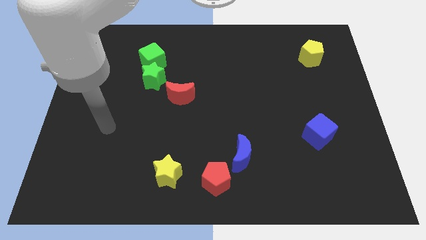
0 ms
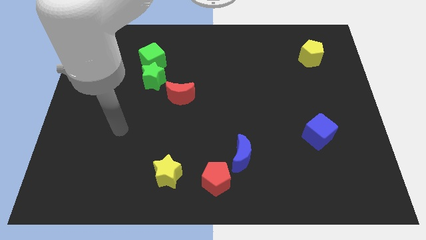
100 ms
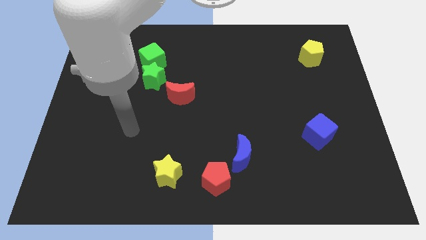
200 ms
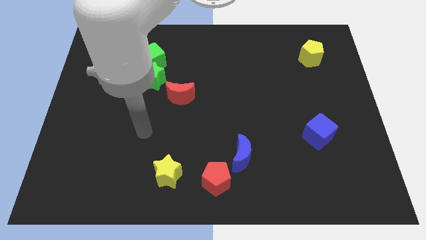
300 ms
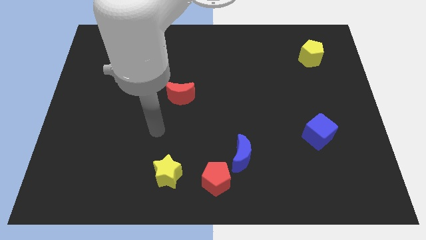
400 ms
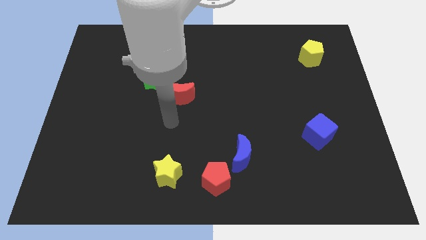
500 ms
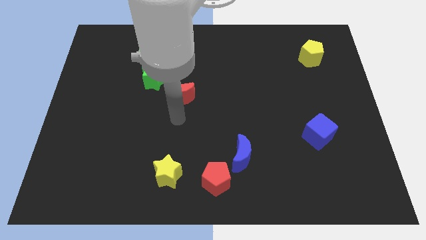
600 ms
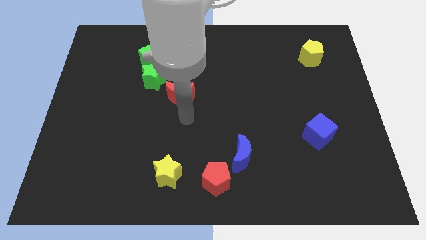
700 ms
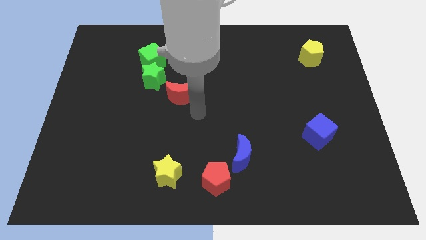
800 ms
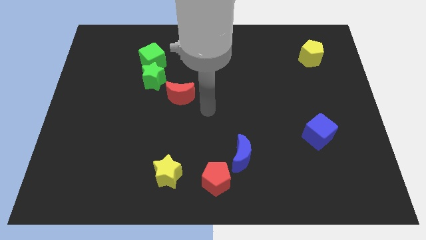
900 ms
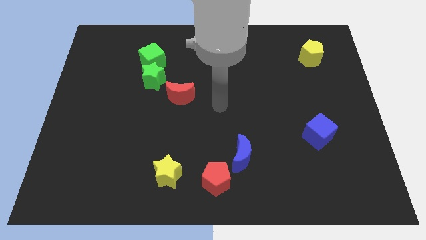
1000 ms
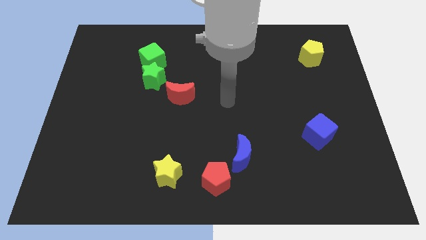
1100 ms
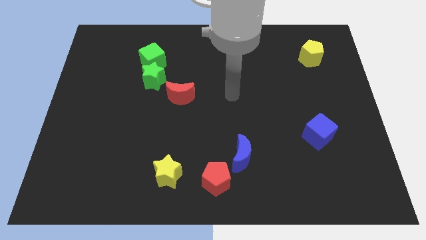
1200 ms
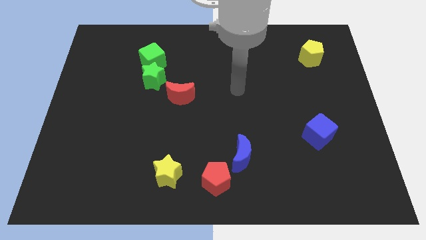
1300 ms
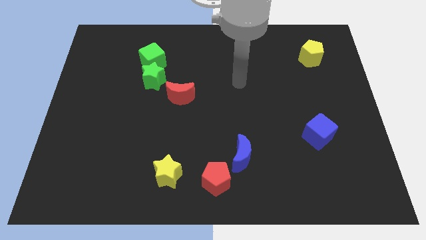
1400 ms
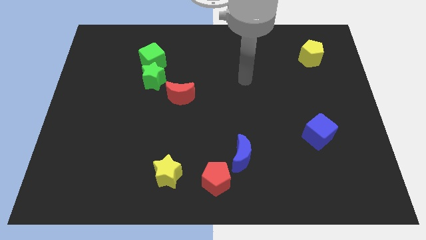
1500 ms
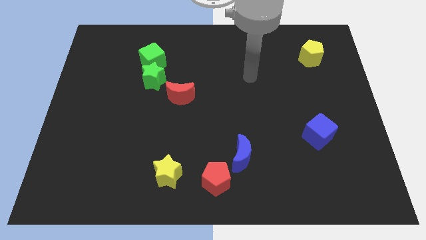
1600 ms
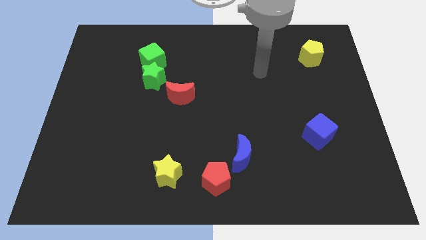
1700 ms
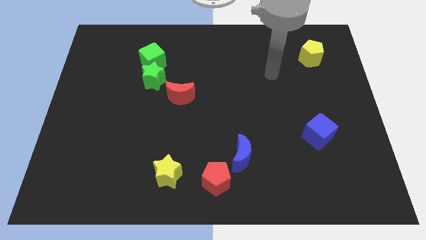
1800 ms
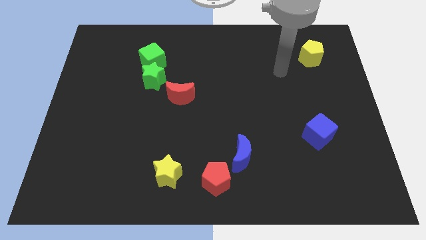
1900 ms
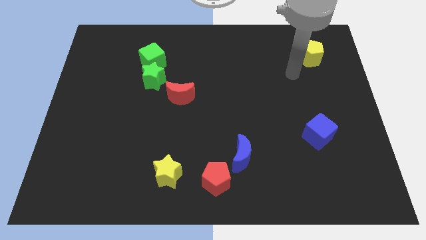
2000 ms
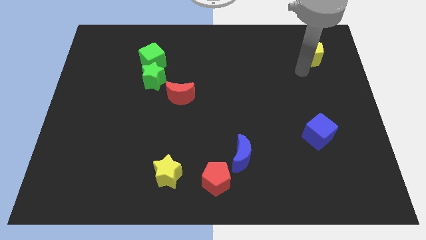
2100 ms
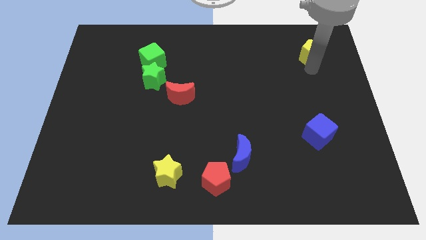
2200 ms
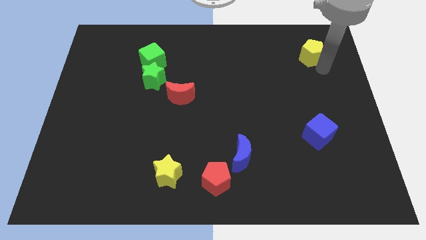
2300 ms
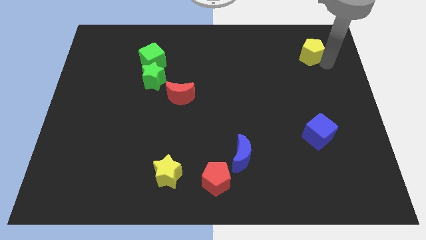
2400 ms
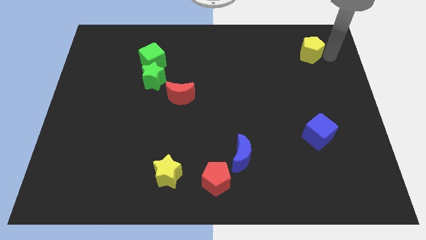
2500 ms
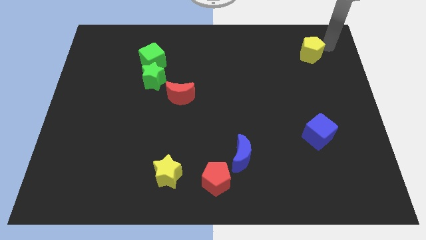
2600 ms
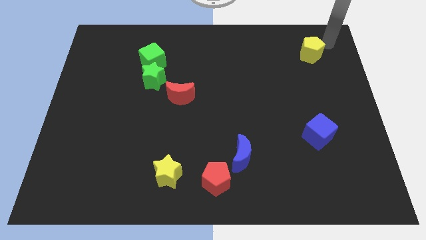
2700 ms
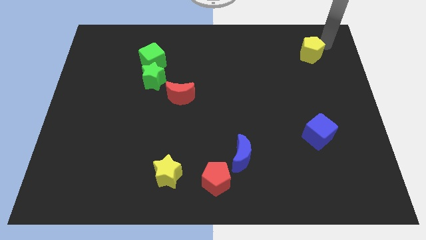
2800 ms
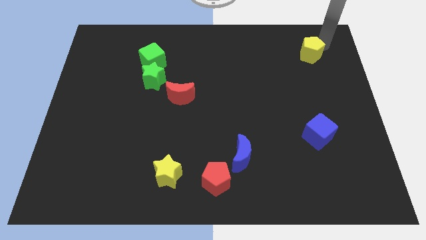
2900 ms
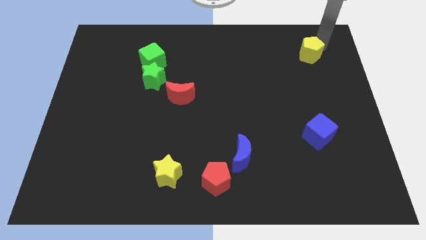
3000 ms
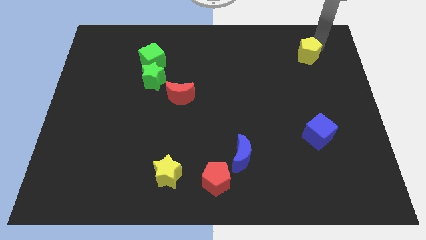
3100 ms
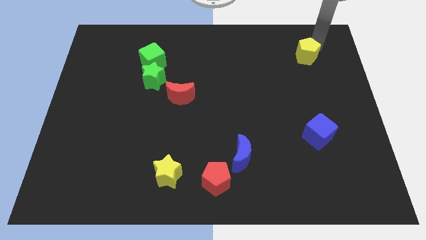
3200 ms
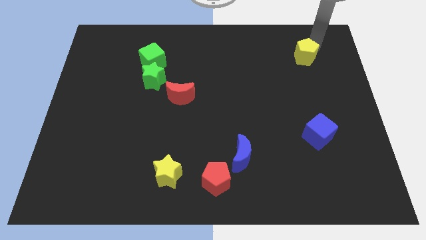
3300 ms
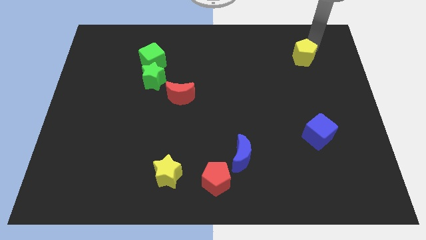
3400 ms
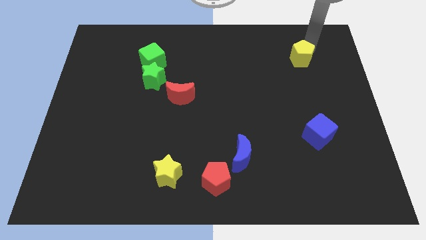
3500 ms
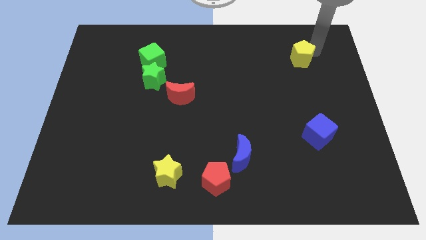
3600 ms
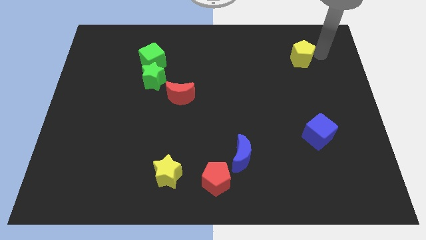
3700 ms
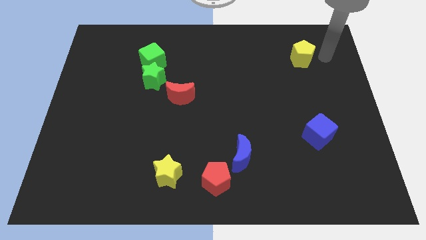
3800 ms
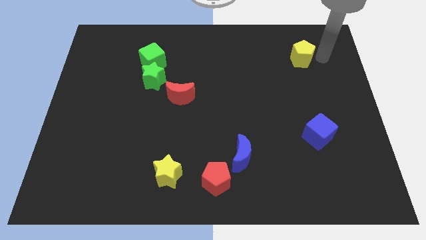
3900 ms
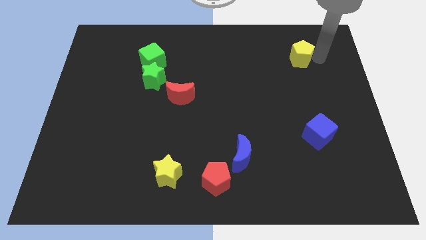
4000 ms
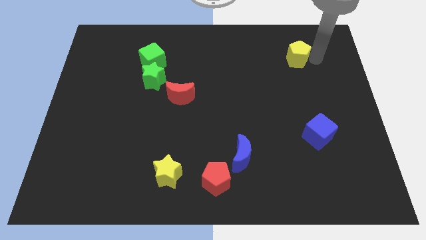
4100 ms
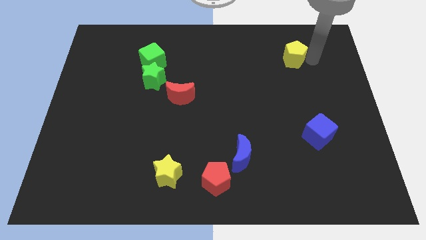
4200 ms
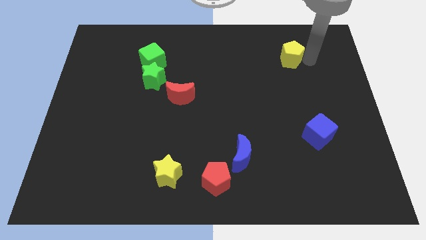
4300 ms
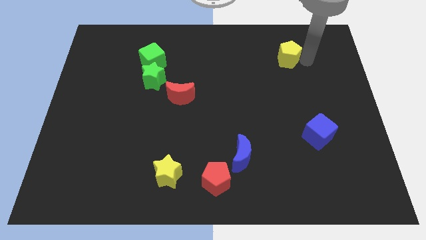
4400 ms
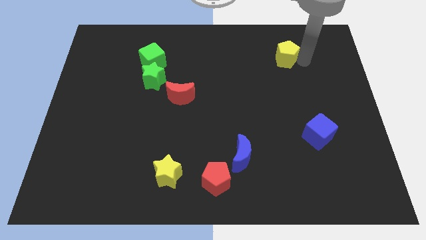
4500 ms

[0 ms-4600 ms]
move the yellow pentagon left a little

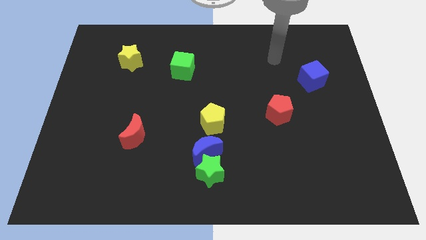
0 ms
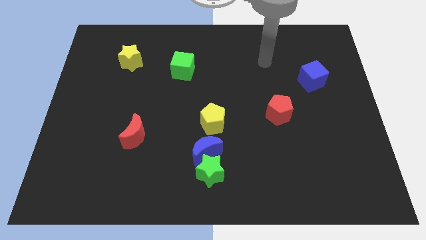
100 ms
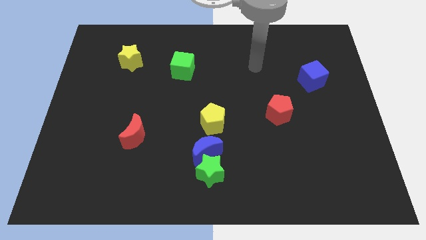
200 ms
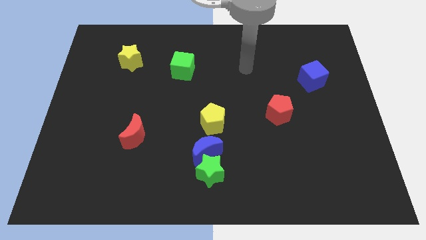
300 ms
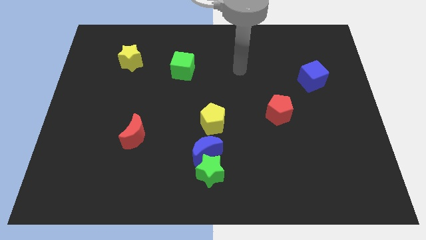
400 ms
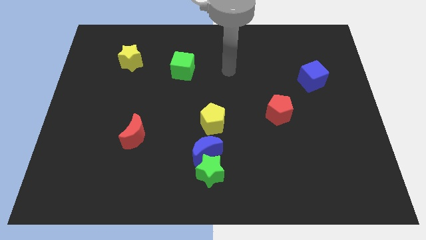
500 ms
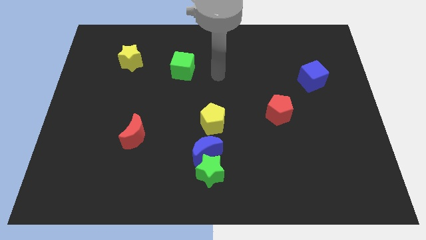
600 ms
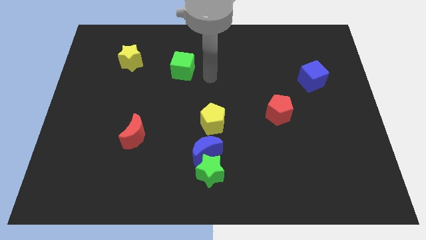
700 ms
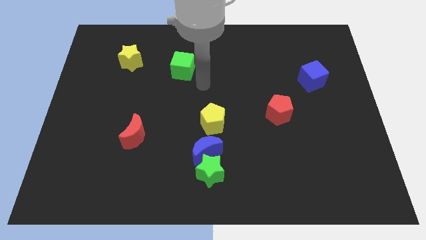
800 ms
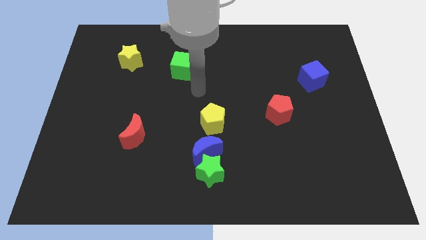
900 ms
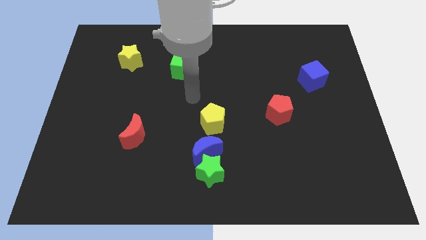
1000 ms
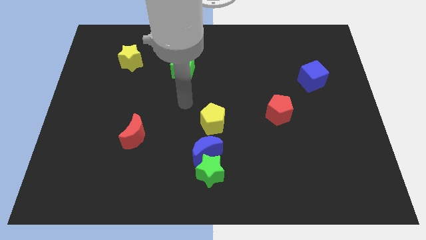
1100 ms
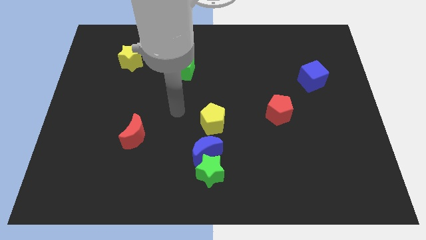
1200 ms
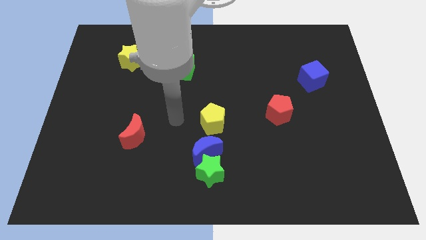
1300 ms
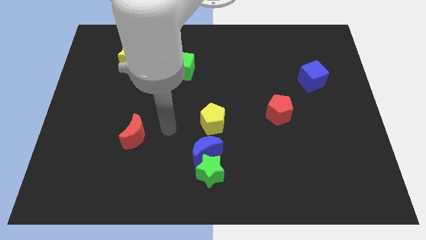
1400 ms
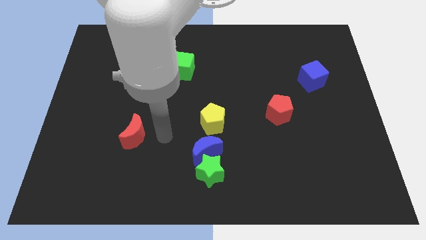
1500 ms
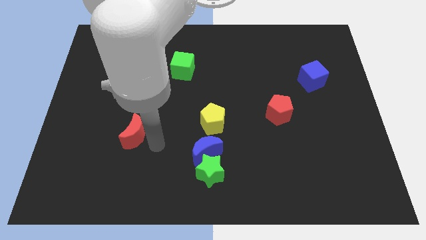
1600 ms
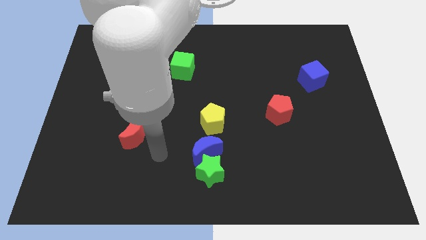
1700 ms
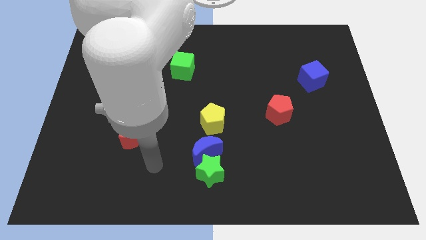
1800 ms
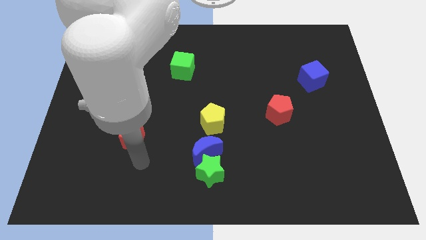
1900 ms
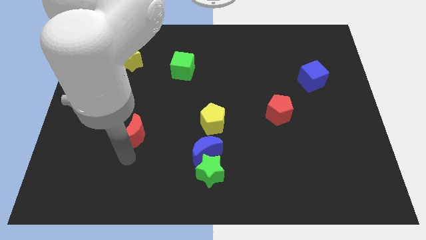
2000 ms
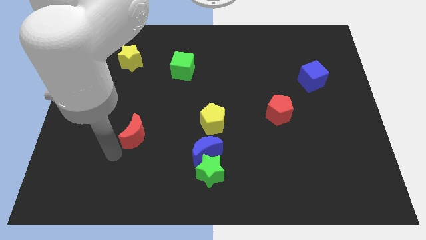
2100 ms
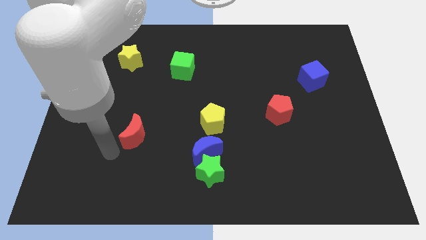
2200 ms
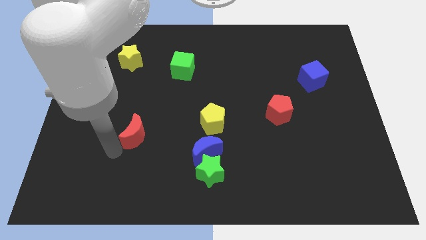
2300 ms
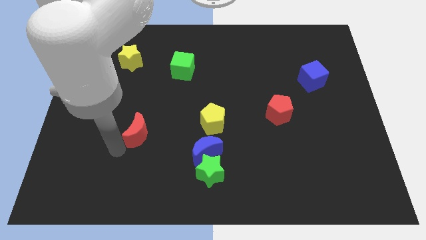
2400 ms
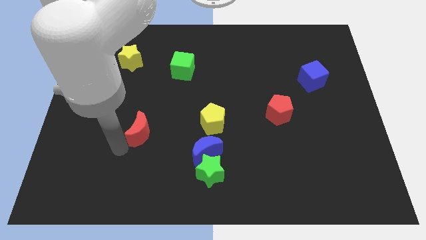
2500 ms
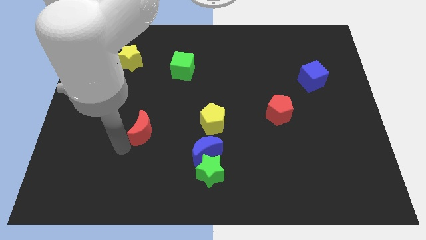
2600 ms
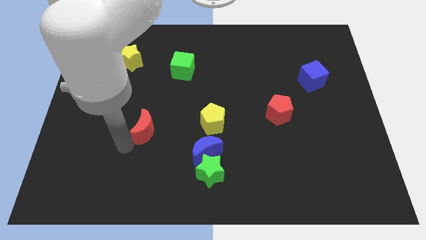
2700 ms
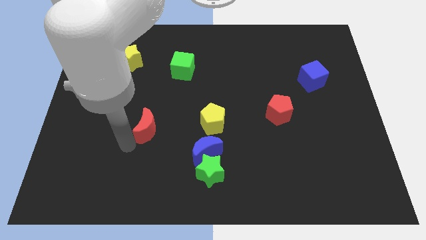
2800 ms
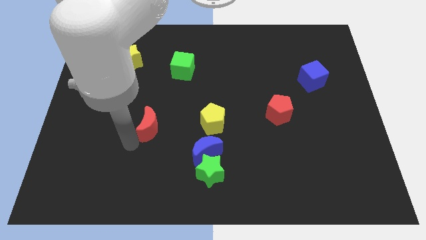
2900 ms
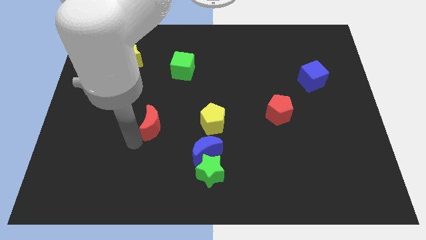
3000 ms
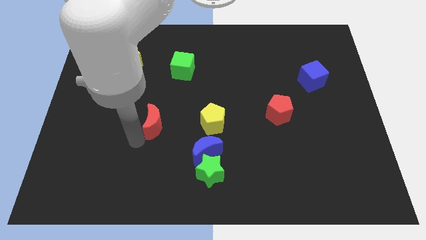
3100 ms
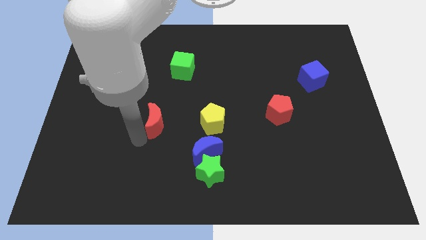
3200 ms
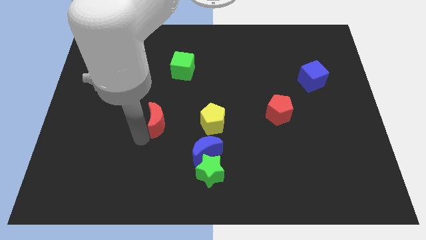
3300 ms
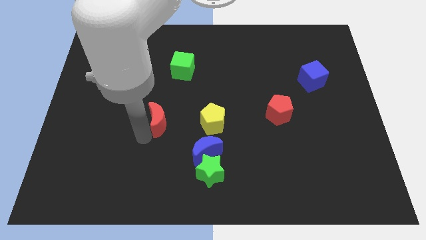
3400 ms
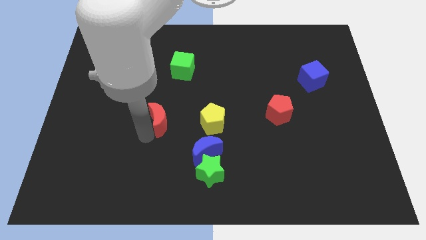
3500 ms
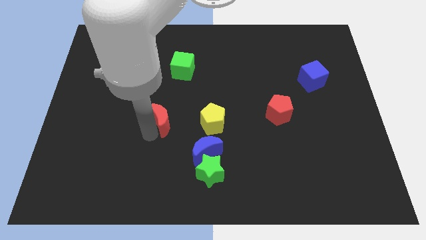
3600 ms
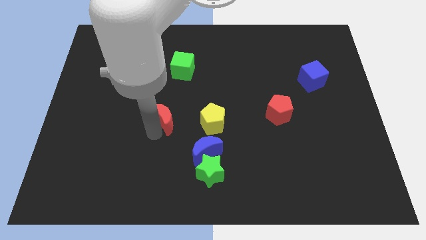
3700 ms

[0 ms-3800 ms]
move the red moon diagonally up and right slightly
